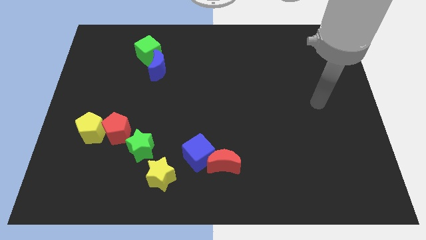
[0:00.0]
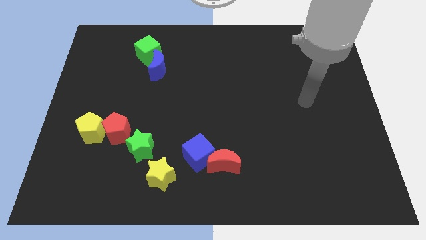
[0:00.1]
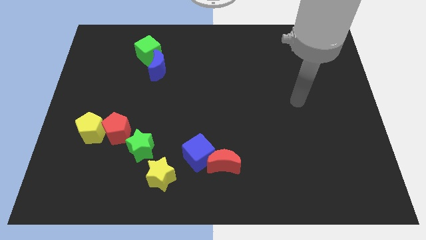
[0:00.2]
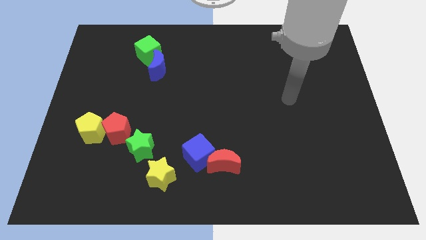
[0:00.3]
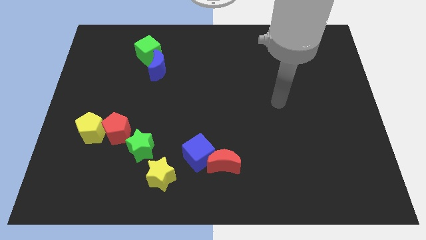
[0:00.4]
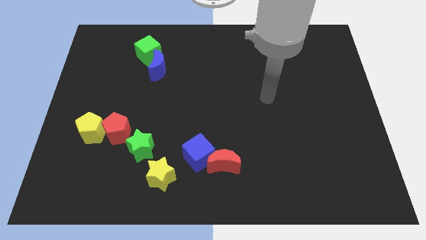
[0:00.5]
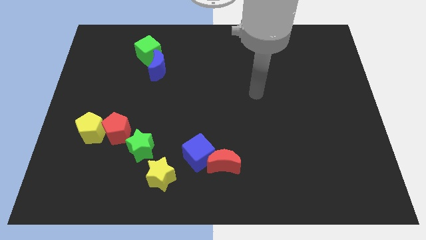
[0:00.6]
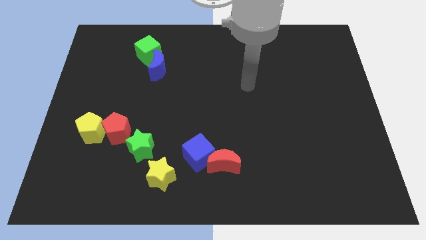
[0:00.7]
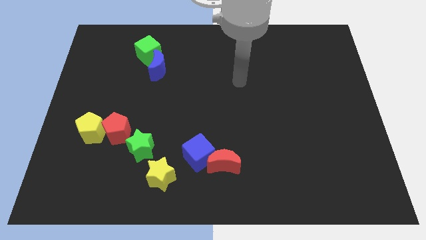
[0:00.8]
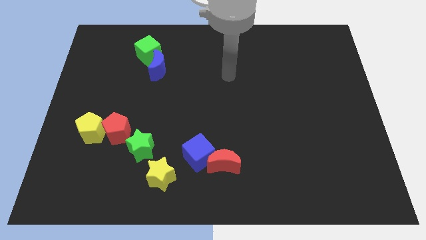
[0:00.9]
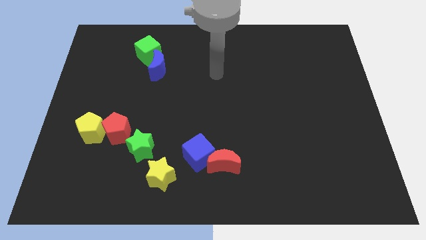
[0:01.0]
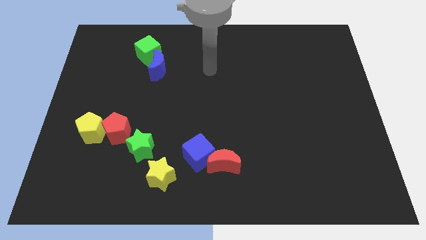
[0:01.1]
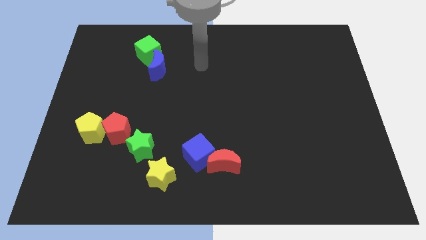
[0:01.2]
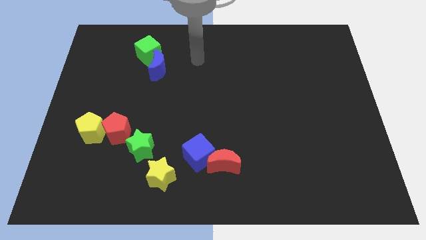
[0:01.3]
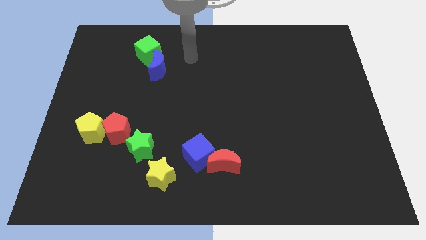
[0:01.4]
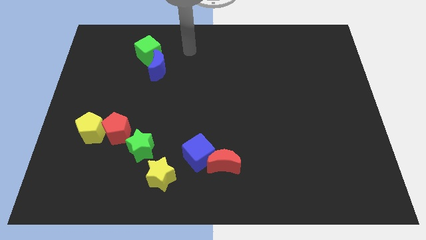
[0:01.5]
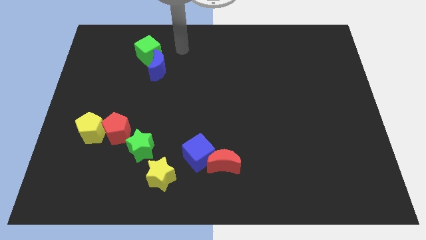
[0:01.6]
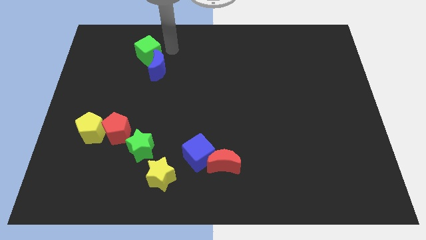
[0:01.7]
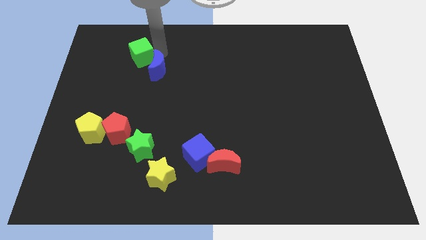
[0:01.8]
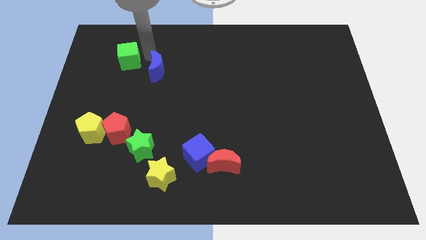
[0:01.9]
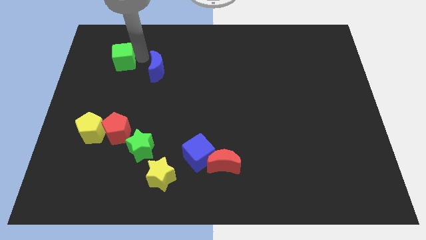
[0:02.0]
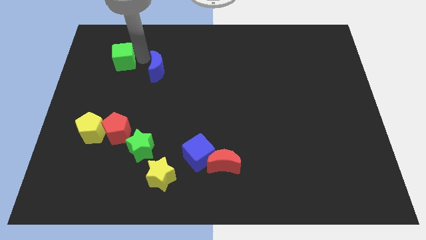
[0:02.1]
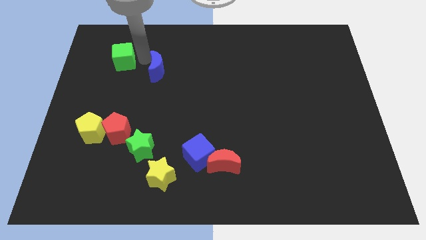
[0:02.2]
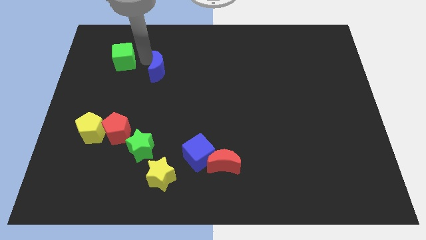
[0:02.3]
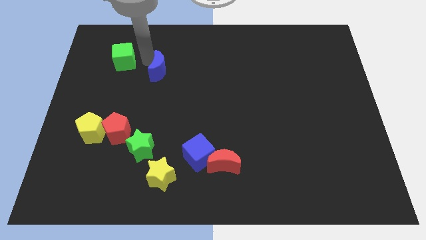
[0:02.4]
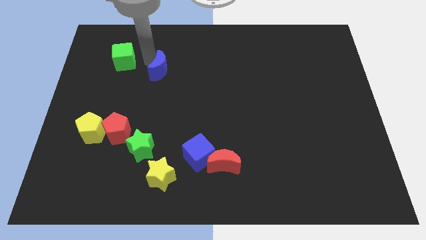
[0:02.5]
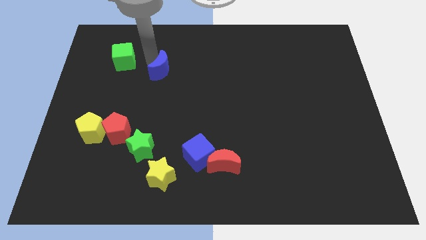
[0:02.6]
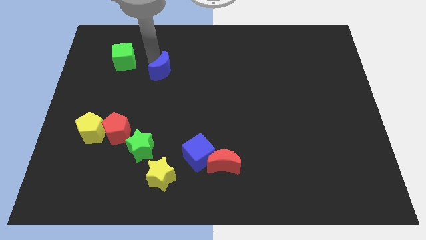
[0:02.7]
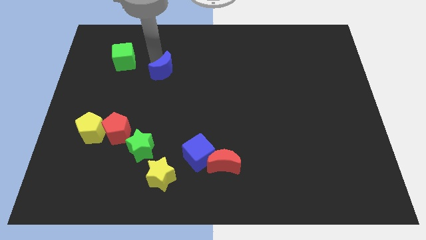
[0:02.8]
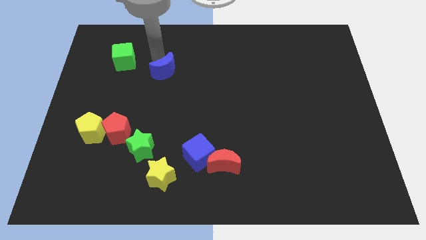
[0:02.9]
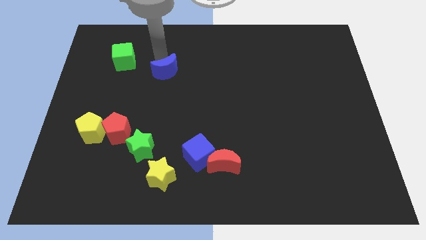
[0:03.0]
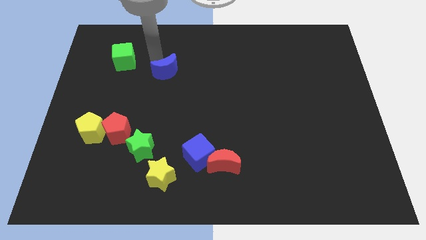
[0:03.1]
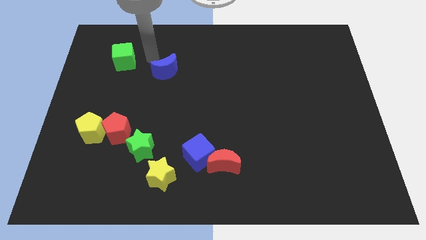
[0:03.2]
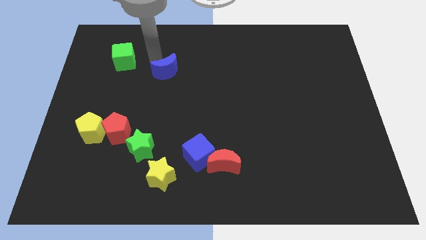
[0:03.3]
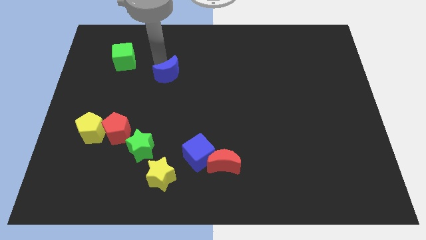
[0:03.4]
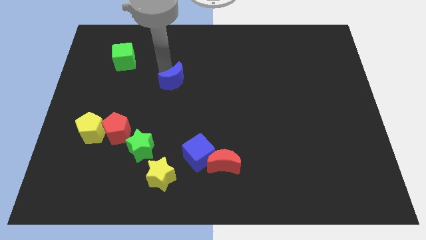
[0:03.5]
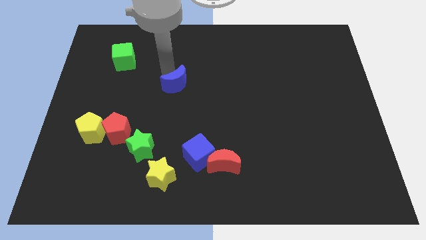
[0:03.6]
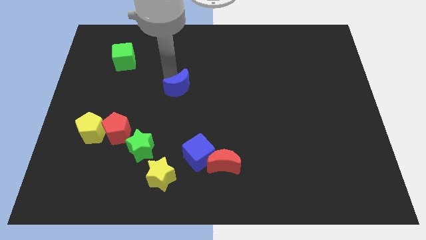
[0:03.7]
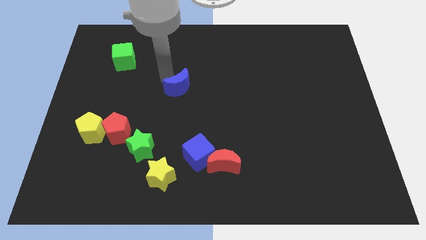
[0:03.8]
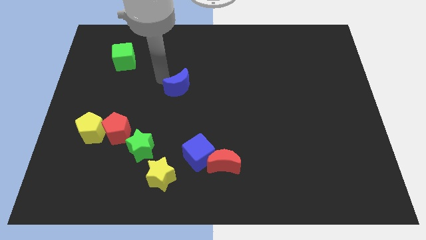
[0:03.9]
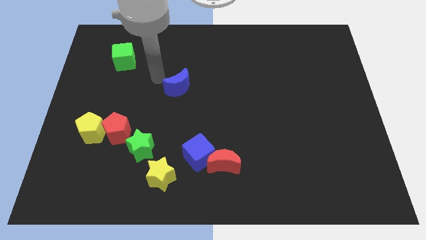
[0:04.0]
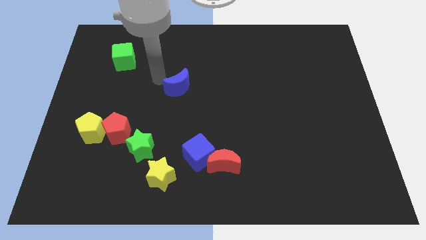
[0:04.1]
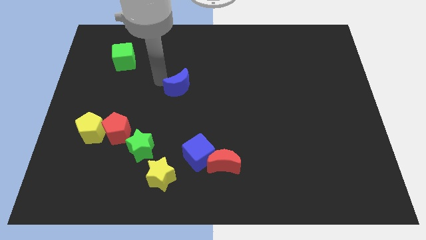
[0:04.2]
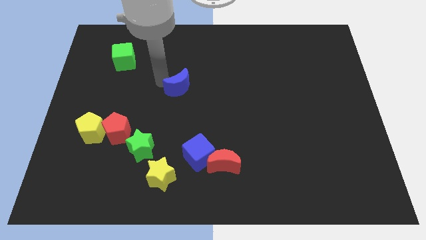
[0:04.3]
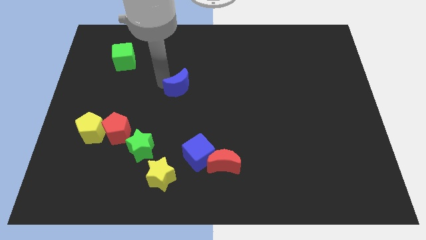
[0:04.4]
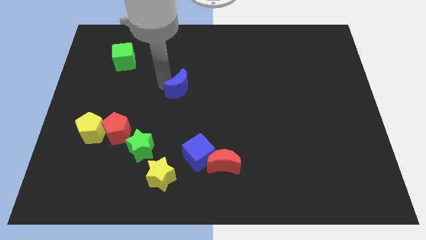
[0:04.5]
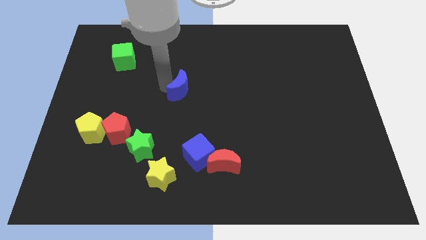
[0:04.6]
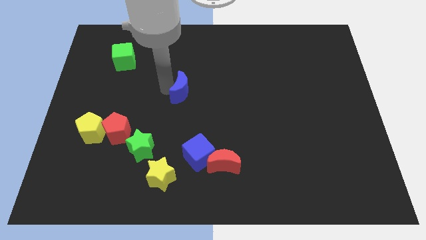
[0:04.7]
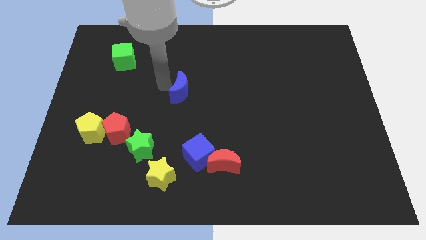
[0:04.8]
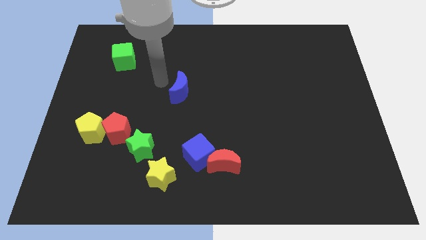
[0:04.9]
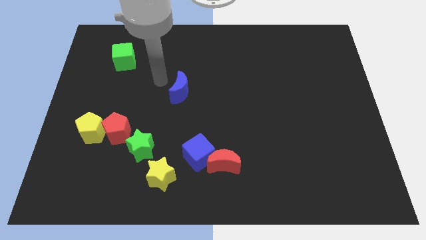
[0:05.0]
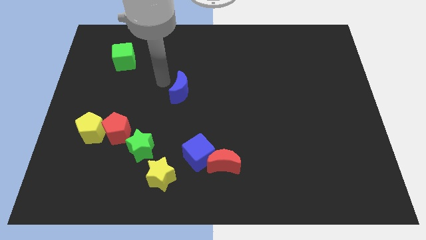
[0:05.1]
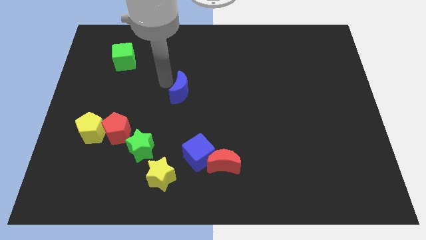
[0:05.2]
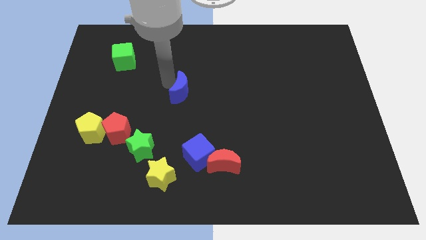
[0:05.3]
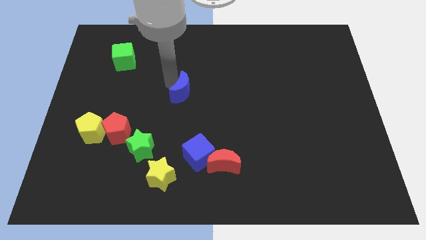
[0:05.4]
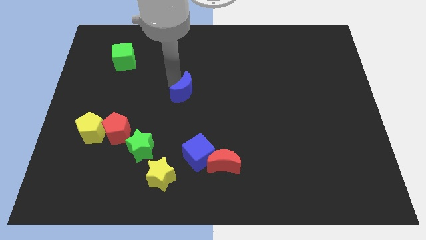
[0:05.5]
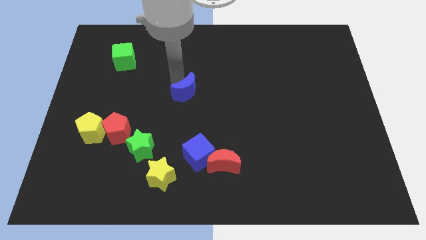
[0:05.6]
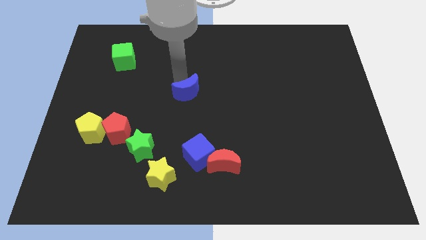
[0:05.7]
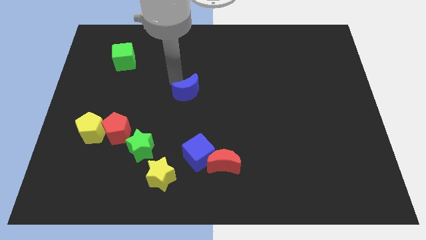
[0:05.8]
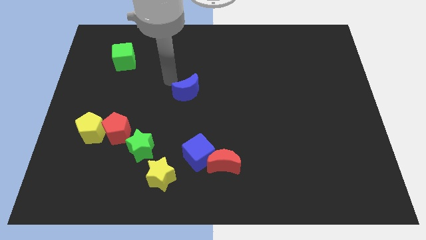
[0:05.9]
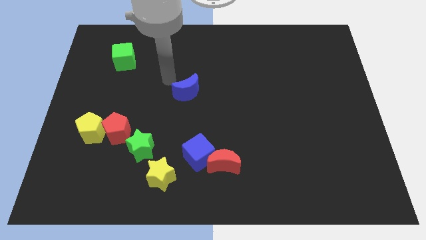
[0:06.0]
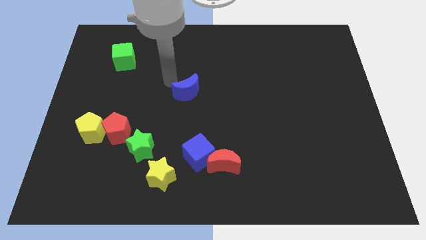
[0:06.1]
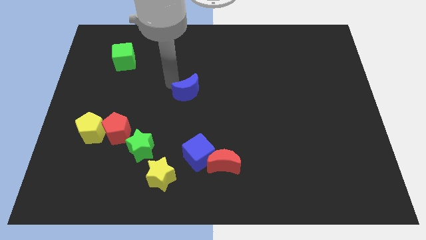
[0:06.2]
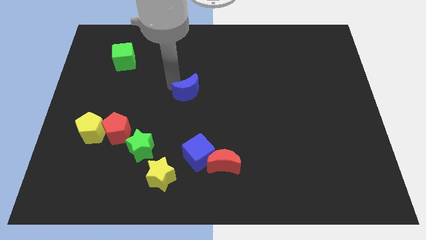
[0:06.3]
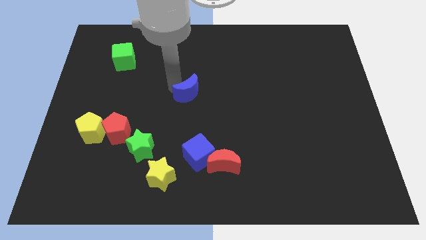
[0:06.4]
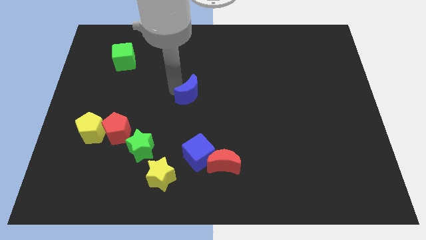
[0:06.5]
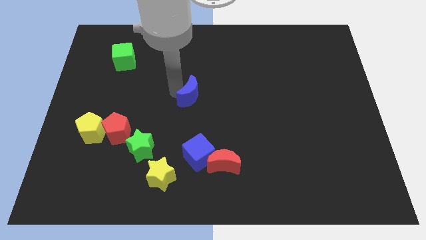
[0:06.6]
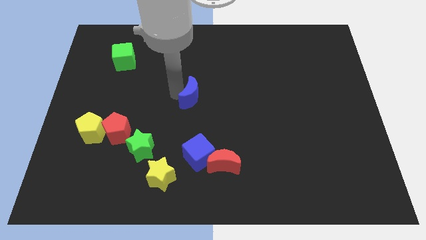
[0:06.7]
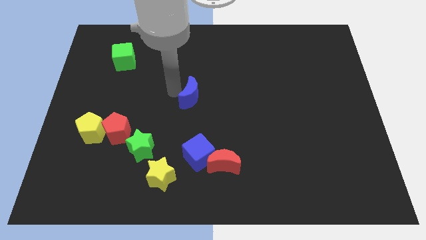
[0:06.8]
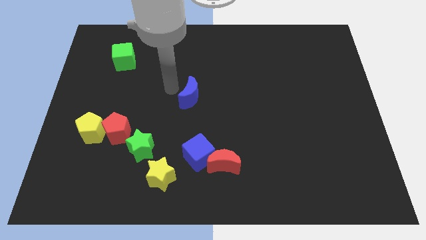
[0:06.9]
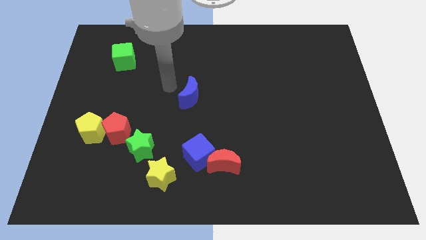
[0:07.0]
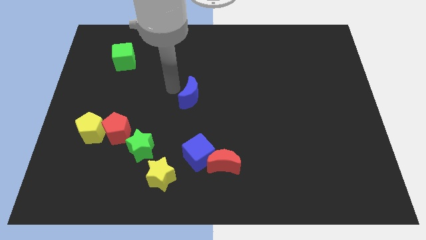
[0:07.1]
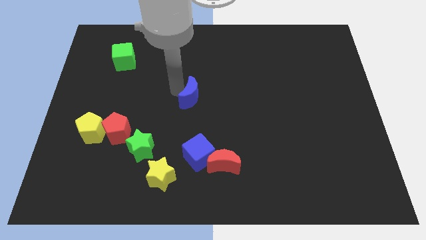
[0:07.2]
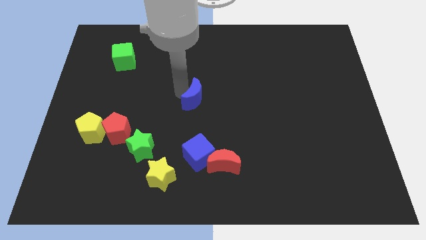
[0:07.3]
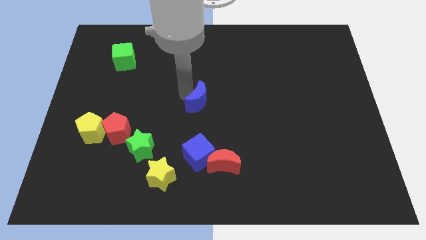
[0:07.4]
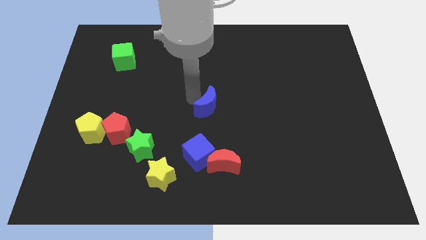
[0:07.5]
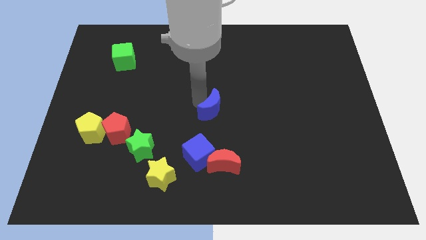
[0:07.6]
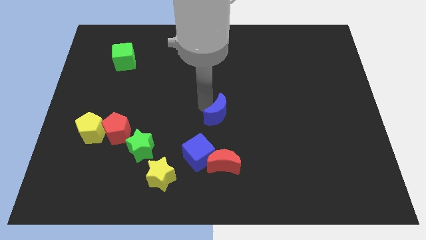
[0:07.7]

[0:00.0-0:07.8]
slide the blue moon diagonally downwards and right

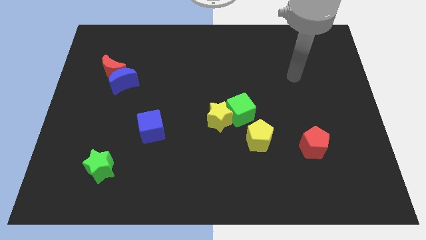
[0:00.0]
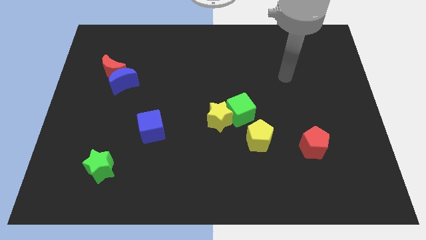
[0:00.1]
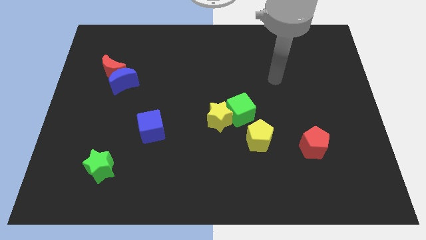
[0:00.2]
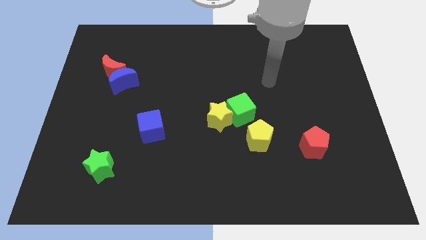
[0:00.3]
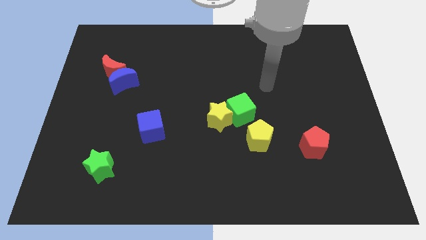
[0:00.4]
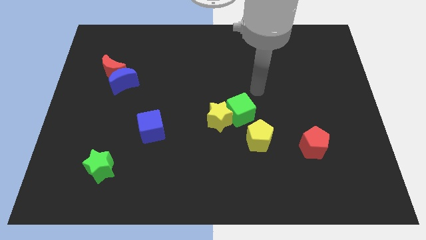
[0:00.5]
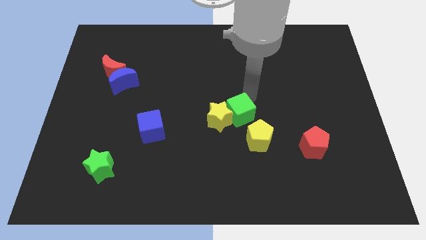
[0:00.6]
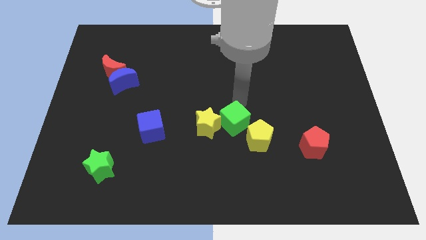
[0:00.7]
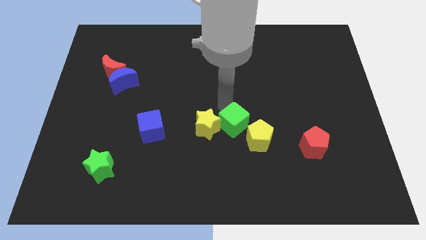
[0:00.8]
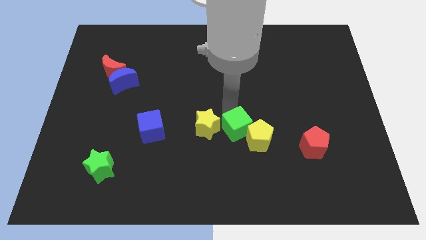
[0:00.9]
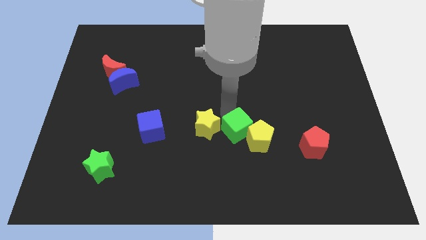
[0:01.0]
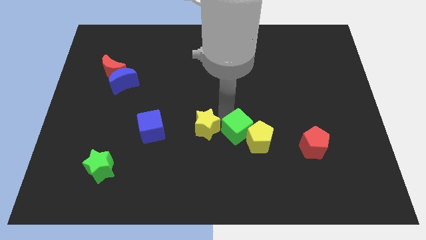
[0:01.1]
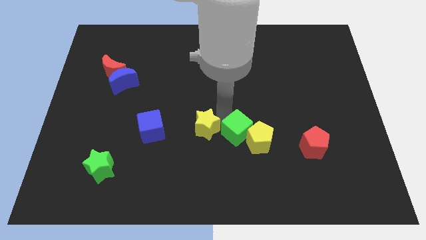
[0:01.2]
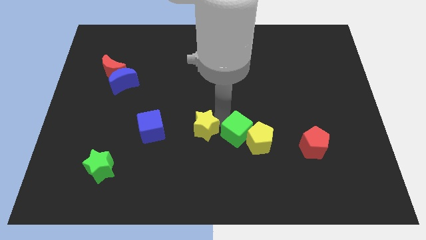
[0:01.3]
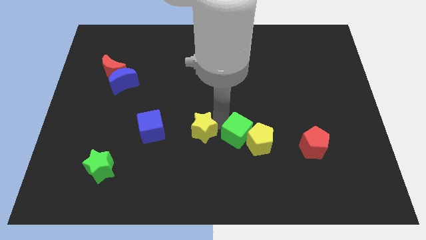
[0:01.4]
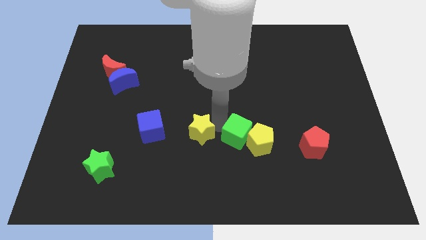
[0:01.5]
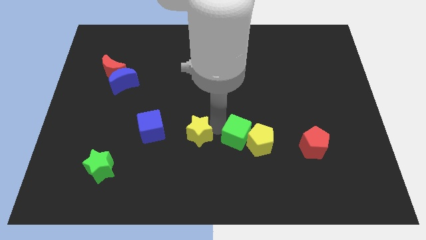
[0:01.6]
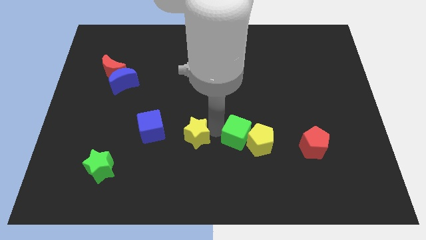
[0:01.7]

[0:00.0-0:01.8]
move the yellow star down and to the left diagonally a bit
